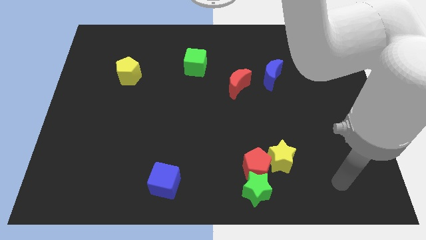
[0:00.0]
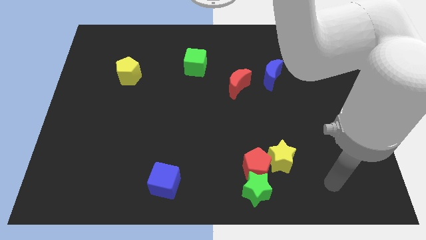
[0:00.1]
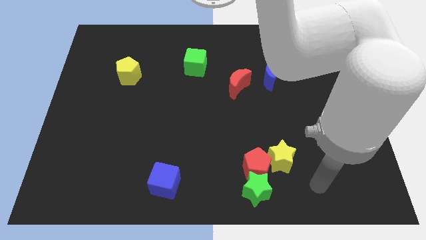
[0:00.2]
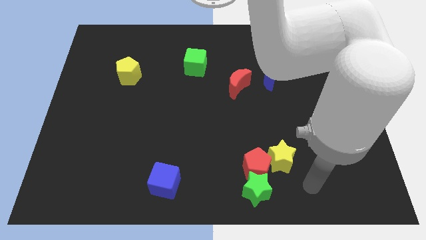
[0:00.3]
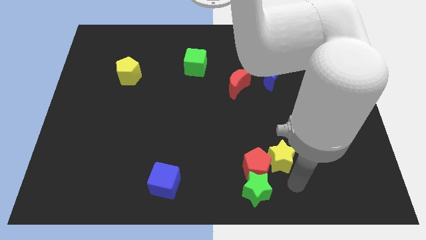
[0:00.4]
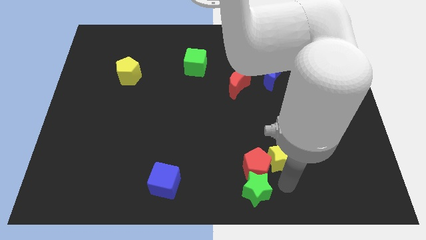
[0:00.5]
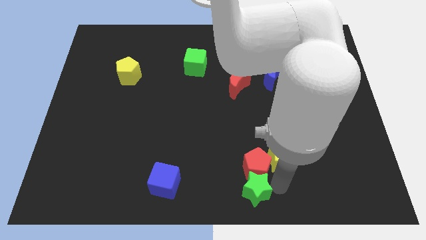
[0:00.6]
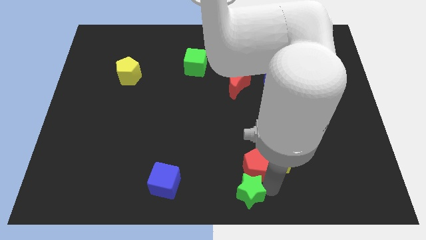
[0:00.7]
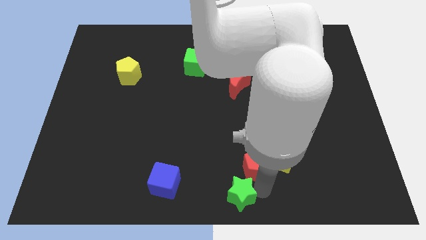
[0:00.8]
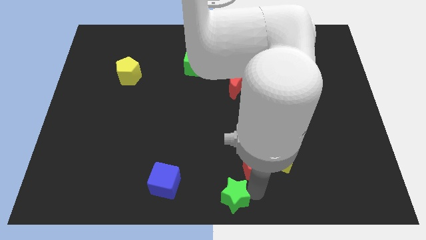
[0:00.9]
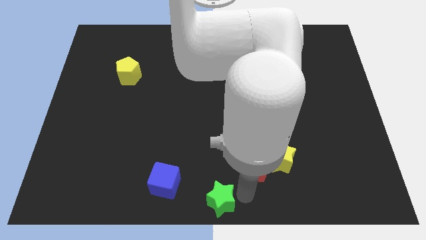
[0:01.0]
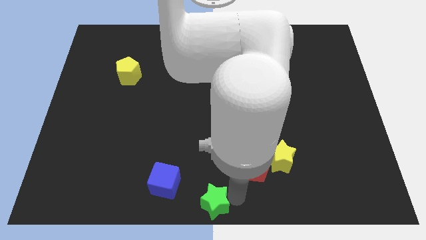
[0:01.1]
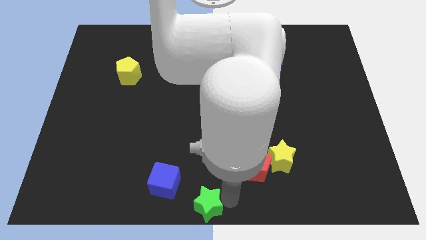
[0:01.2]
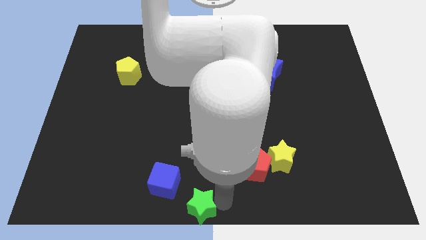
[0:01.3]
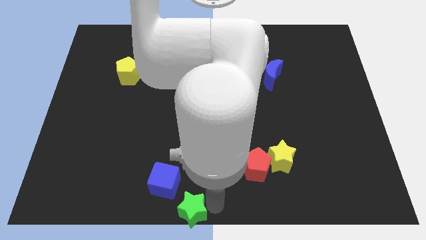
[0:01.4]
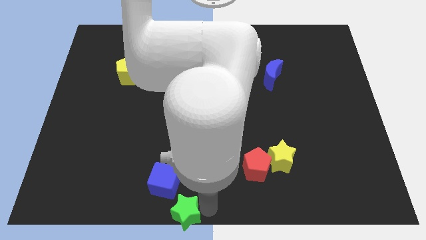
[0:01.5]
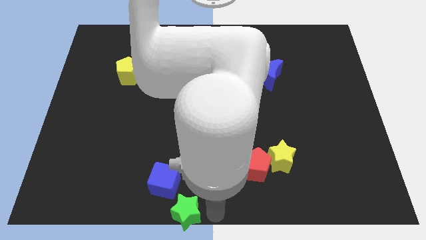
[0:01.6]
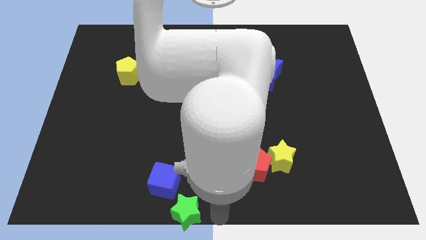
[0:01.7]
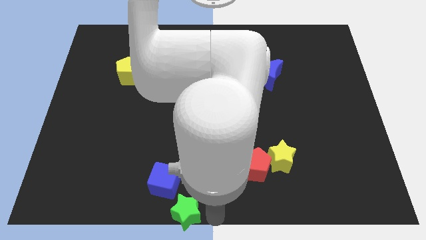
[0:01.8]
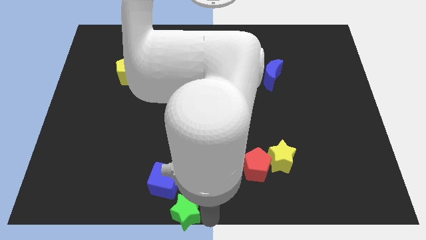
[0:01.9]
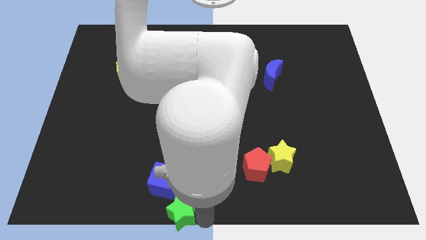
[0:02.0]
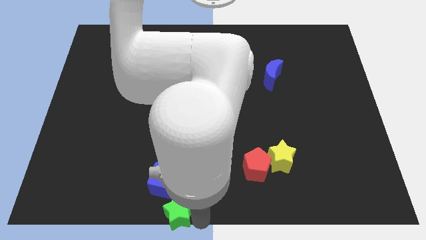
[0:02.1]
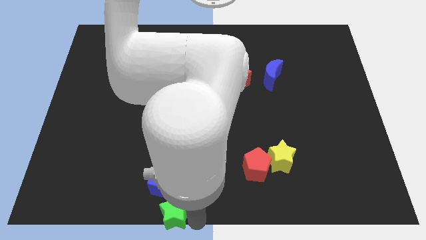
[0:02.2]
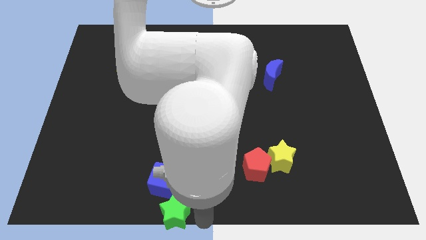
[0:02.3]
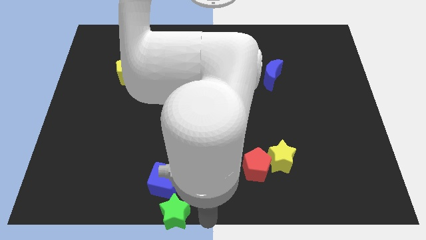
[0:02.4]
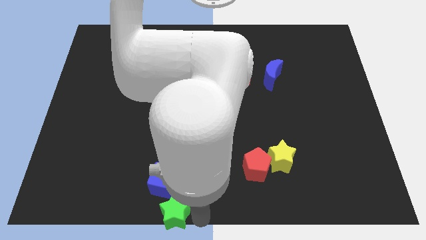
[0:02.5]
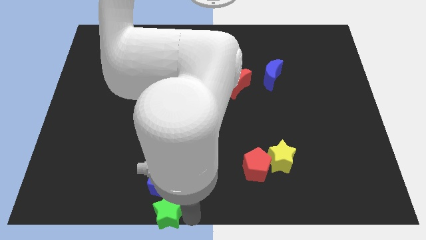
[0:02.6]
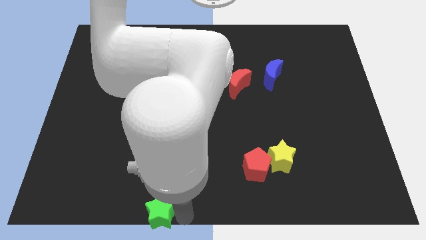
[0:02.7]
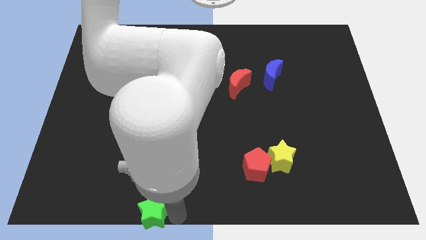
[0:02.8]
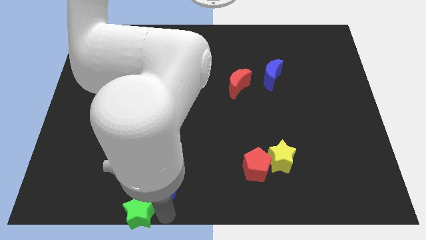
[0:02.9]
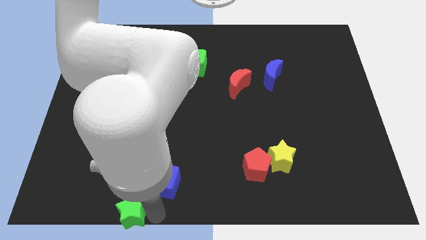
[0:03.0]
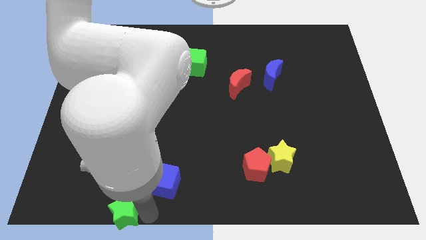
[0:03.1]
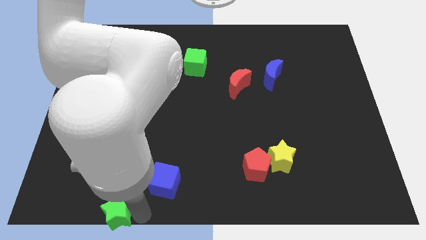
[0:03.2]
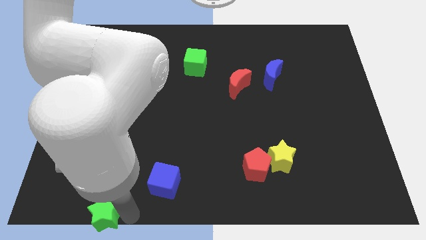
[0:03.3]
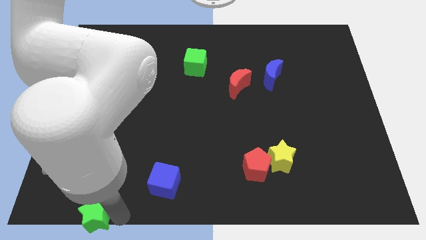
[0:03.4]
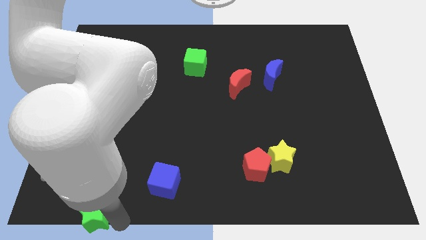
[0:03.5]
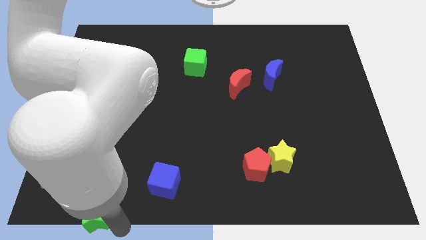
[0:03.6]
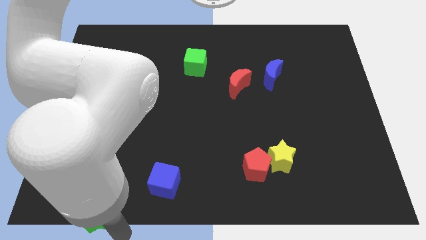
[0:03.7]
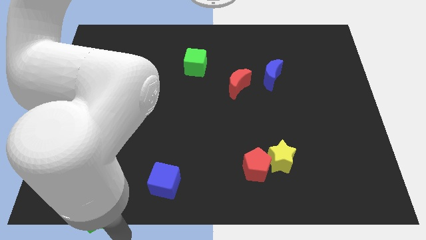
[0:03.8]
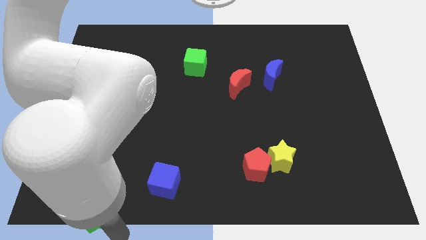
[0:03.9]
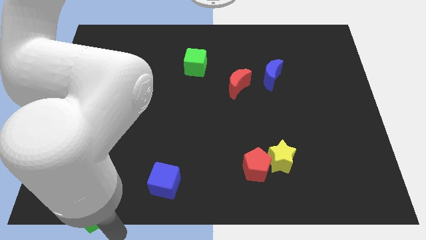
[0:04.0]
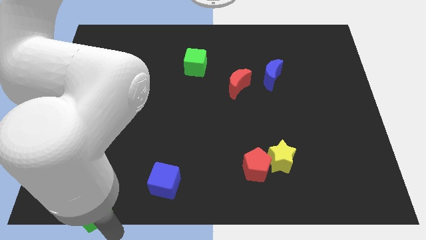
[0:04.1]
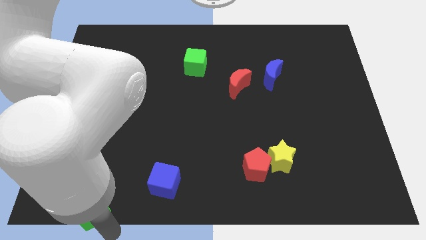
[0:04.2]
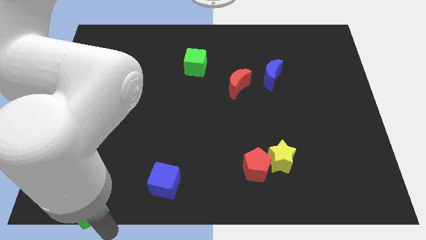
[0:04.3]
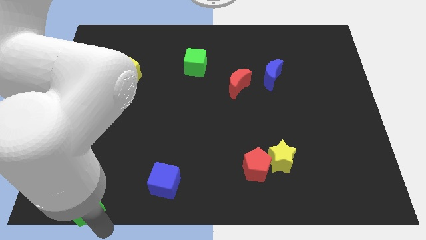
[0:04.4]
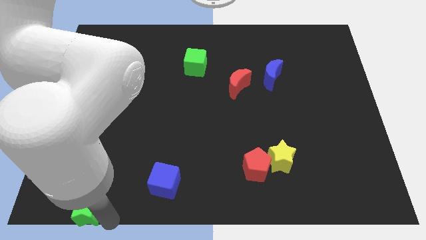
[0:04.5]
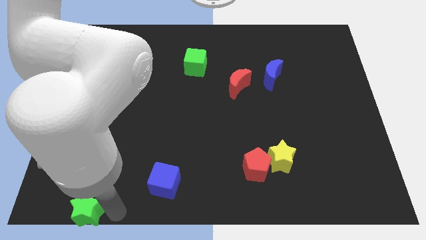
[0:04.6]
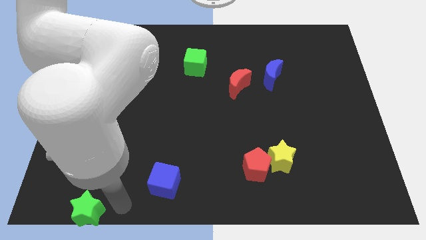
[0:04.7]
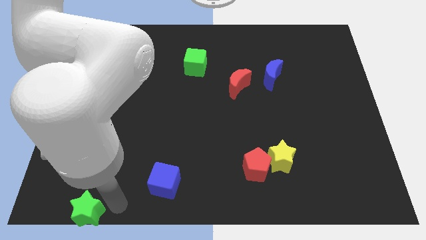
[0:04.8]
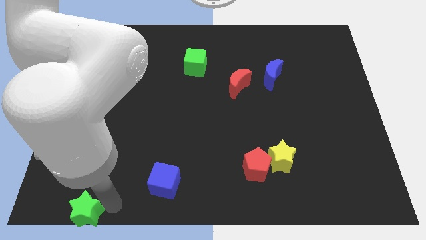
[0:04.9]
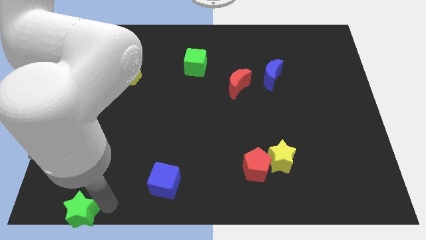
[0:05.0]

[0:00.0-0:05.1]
slide the green star to the bottom left

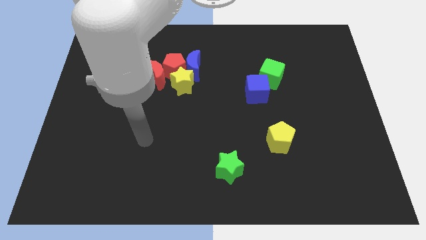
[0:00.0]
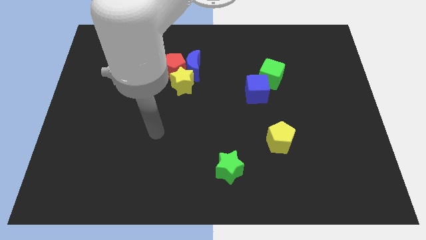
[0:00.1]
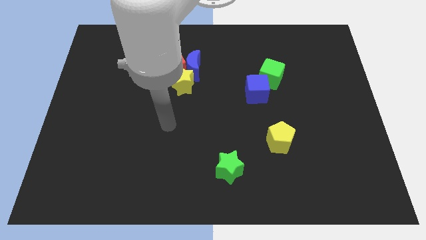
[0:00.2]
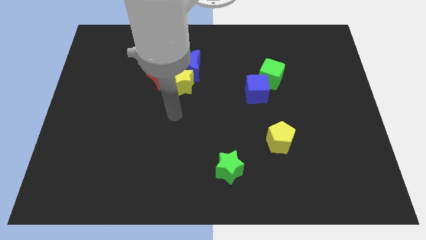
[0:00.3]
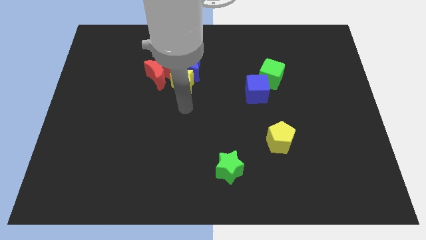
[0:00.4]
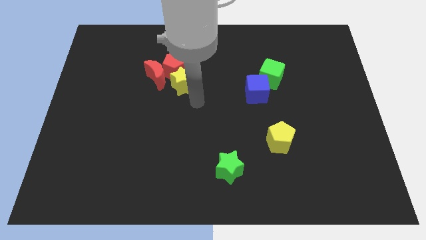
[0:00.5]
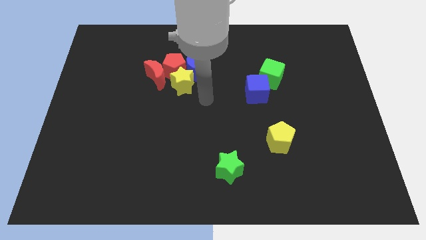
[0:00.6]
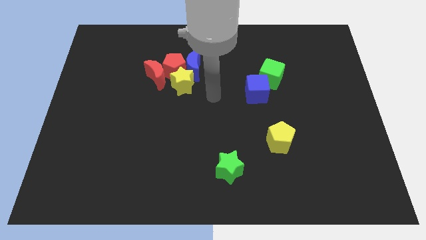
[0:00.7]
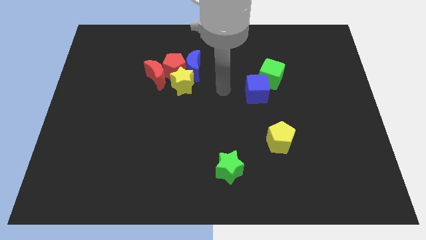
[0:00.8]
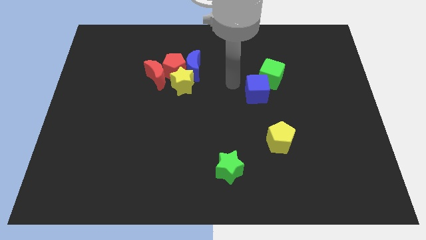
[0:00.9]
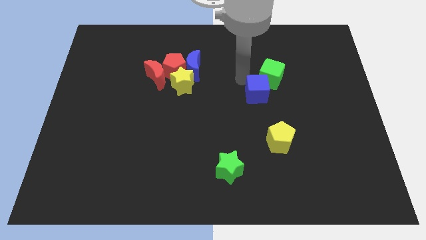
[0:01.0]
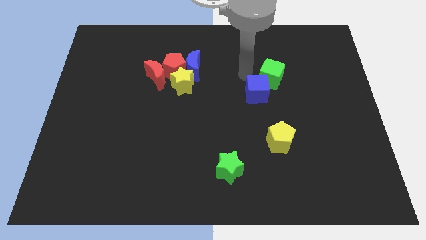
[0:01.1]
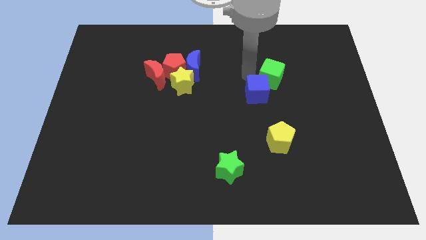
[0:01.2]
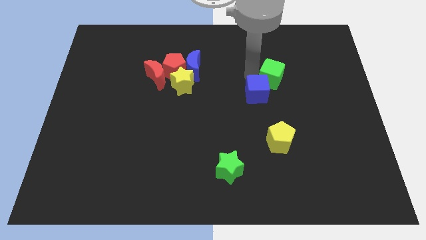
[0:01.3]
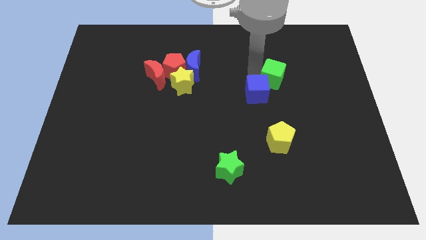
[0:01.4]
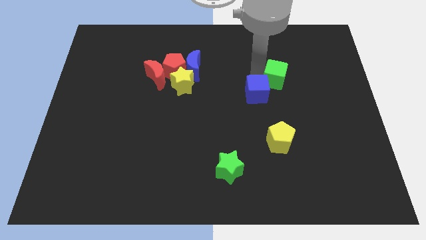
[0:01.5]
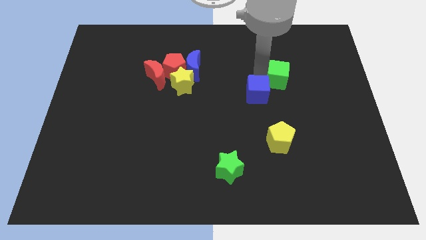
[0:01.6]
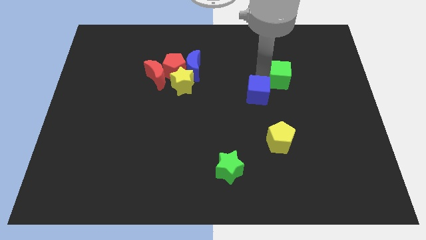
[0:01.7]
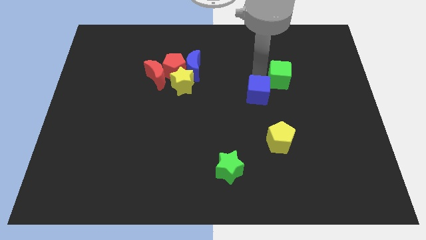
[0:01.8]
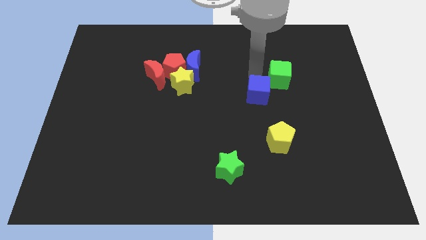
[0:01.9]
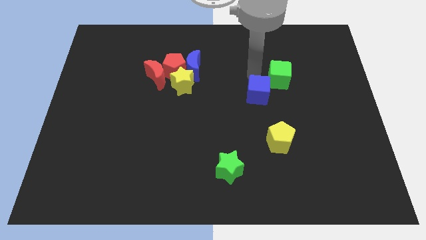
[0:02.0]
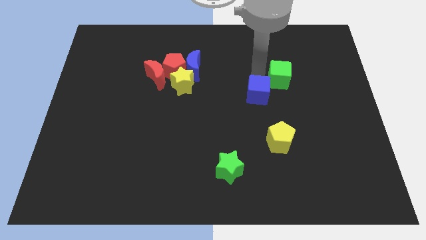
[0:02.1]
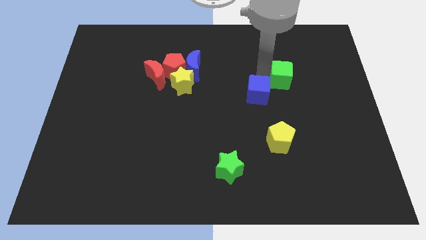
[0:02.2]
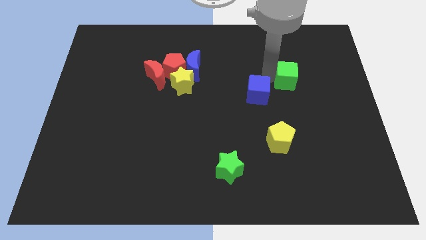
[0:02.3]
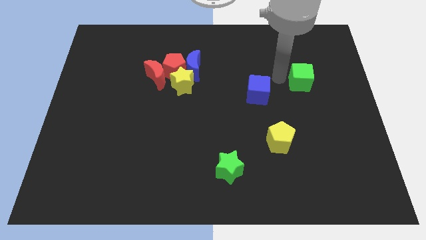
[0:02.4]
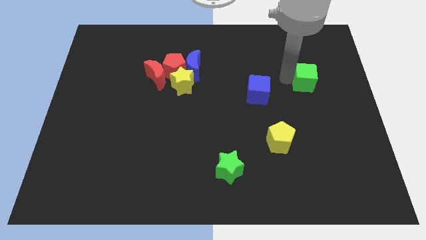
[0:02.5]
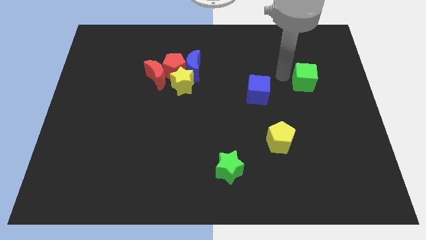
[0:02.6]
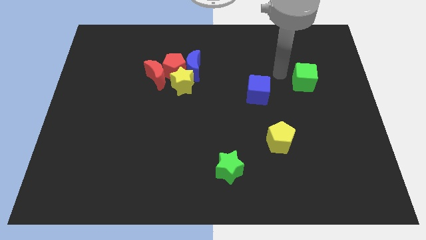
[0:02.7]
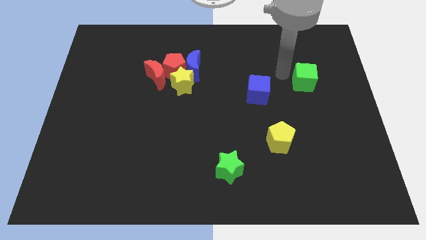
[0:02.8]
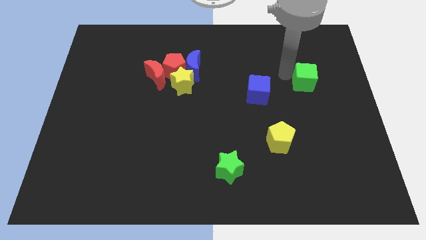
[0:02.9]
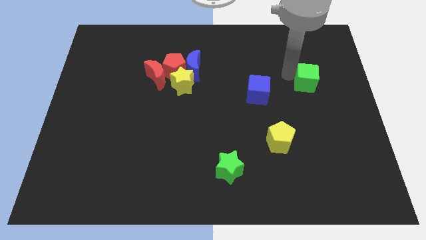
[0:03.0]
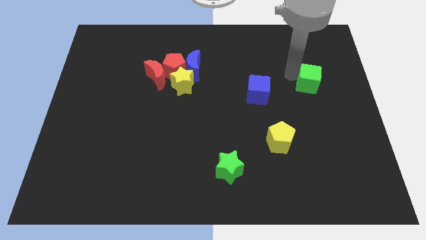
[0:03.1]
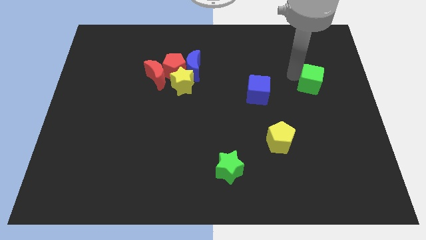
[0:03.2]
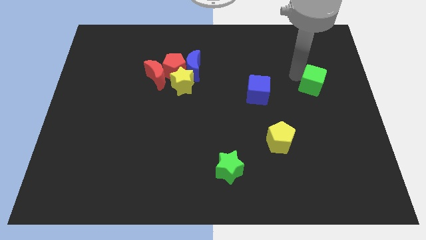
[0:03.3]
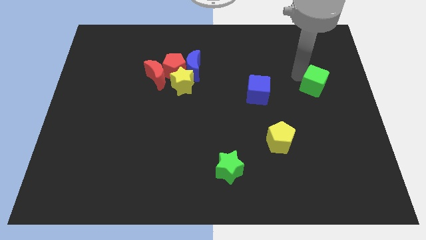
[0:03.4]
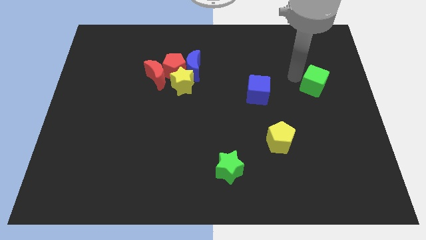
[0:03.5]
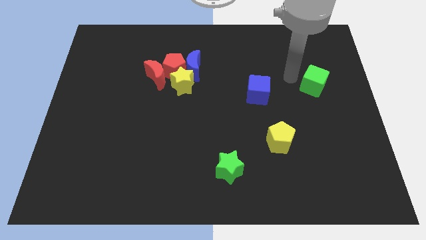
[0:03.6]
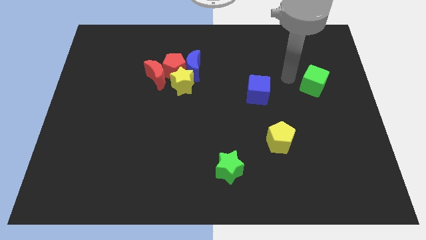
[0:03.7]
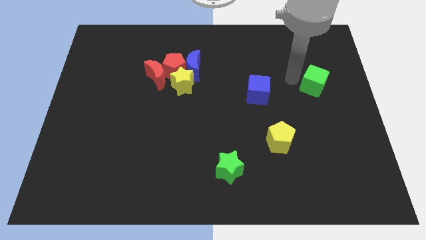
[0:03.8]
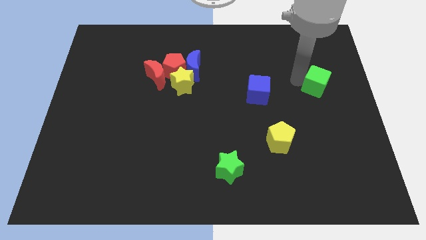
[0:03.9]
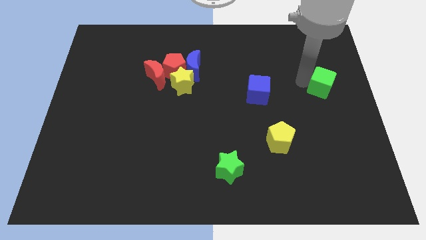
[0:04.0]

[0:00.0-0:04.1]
slide the green cube to the right side of the board
